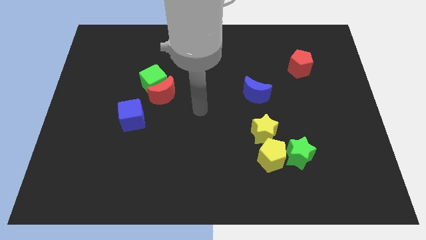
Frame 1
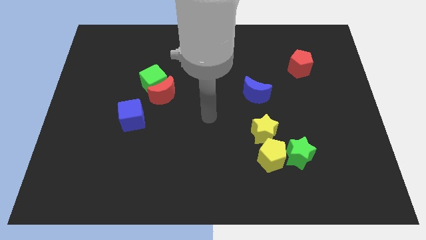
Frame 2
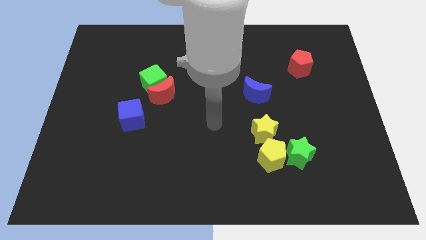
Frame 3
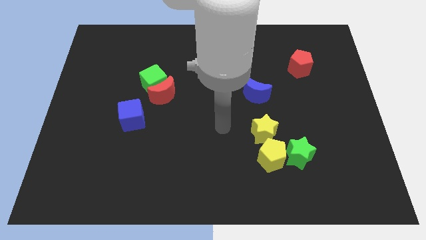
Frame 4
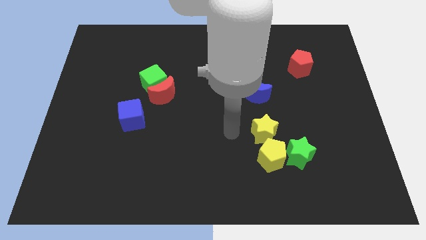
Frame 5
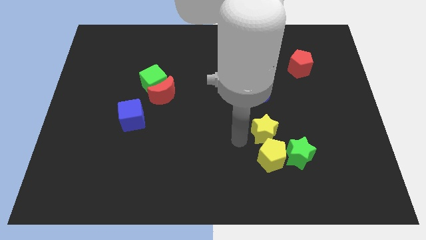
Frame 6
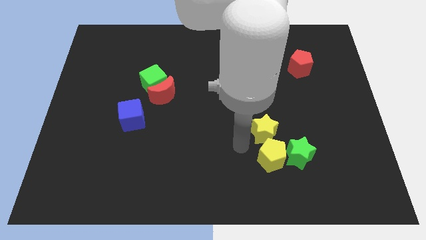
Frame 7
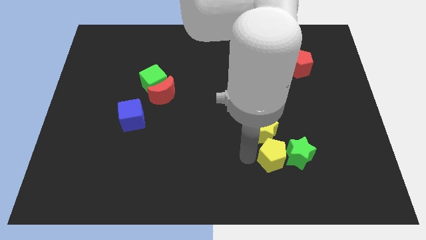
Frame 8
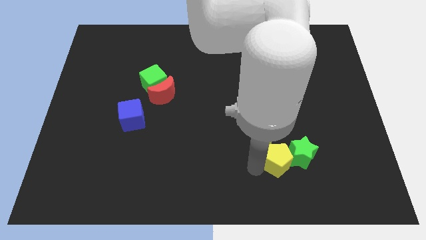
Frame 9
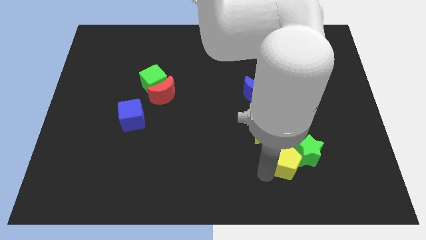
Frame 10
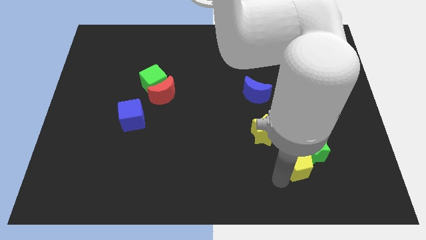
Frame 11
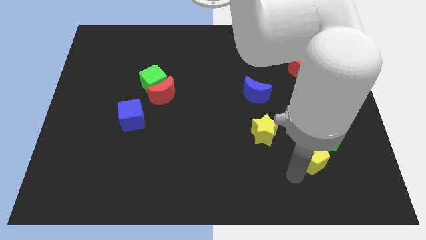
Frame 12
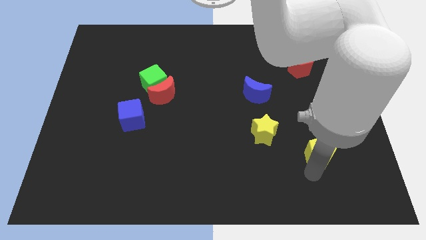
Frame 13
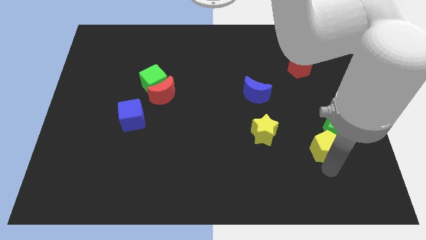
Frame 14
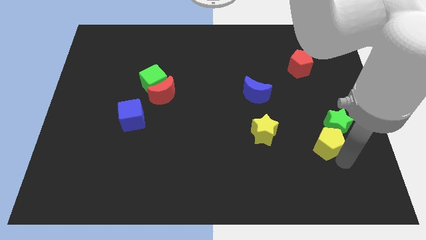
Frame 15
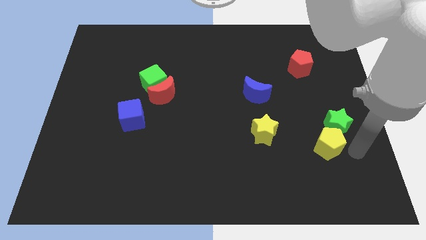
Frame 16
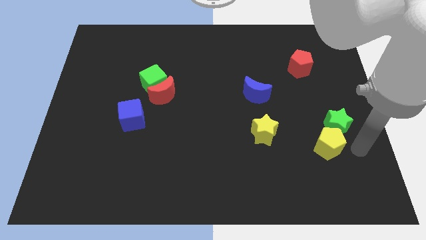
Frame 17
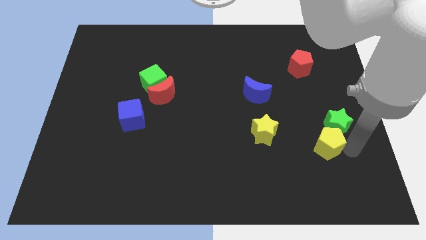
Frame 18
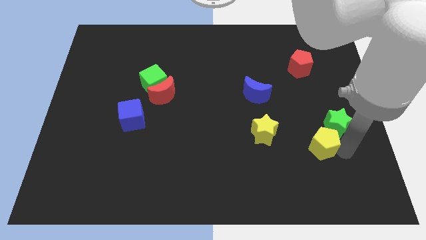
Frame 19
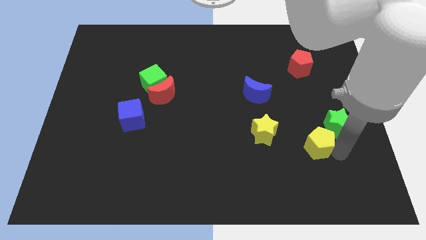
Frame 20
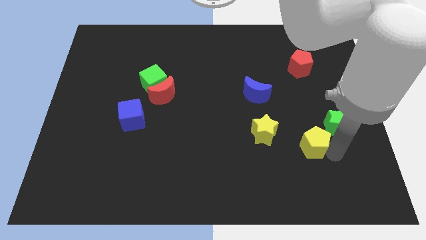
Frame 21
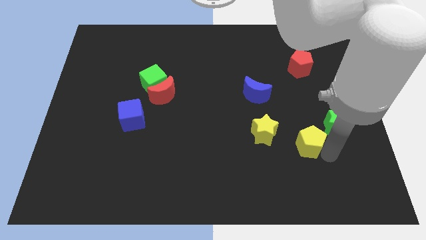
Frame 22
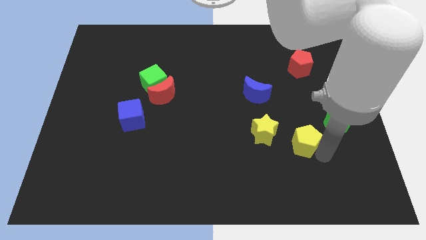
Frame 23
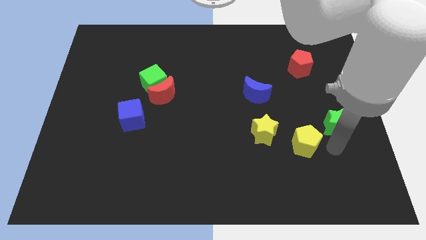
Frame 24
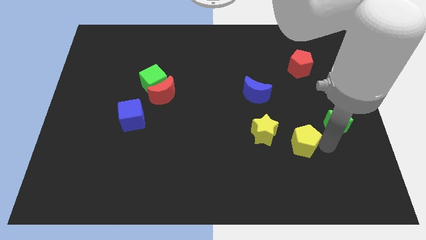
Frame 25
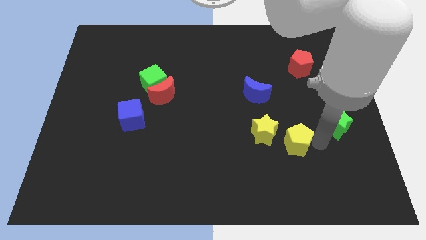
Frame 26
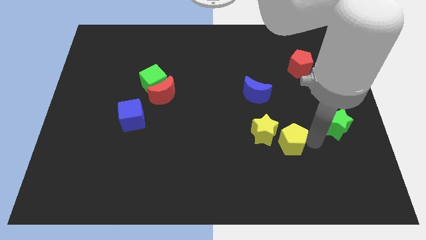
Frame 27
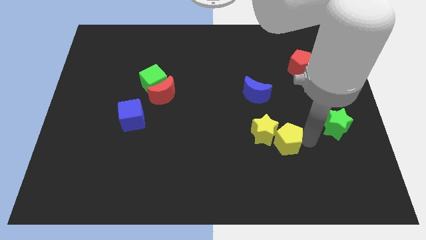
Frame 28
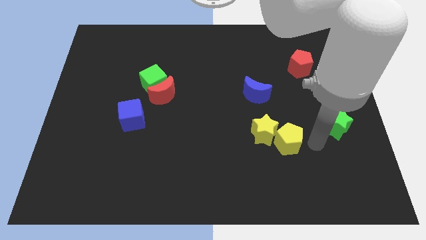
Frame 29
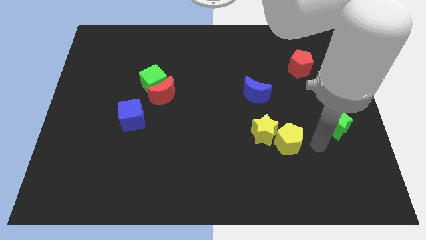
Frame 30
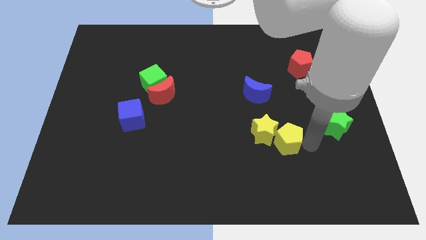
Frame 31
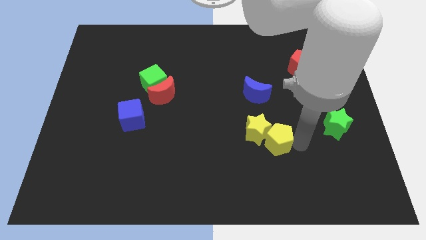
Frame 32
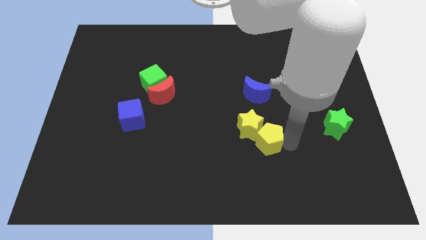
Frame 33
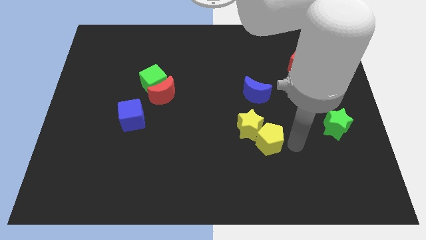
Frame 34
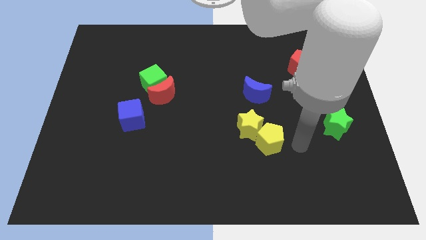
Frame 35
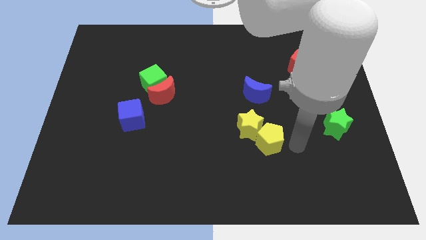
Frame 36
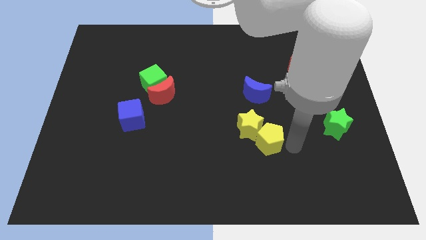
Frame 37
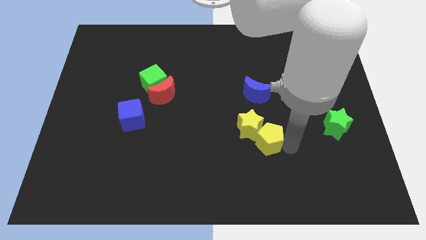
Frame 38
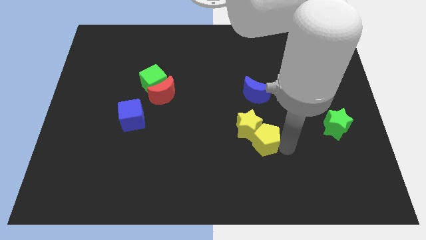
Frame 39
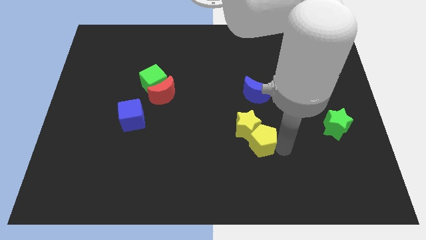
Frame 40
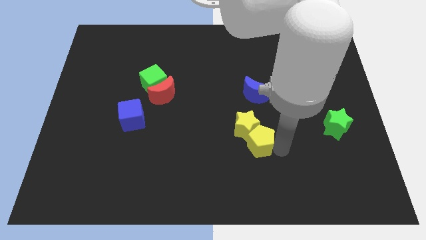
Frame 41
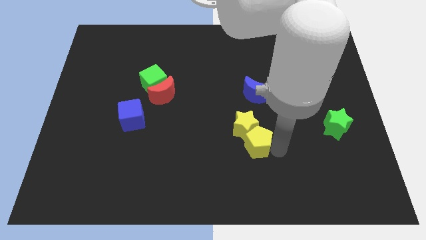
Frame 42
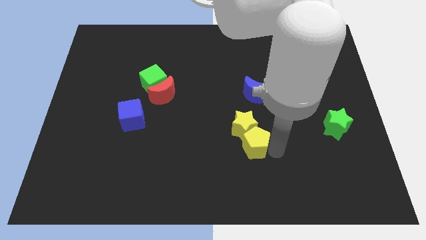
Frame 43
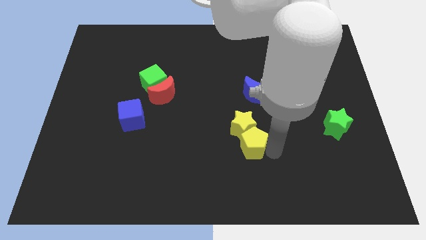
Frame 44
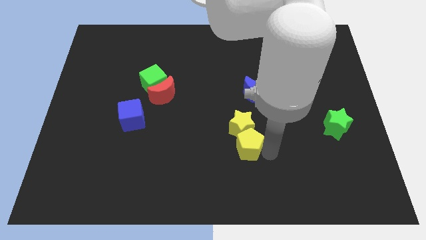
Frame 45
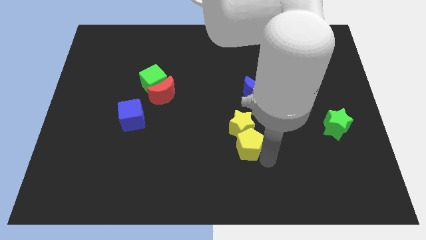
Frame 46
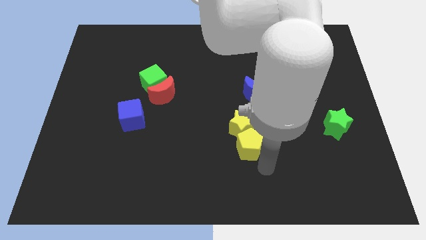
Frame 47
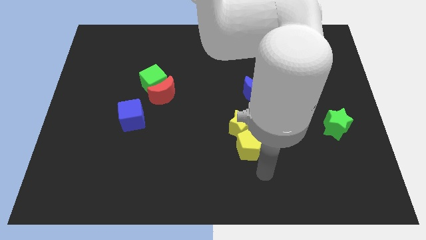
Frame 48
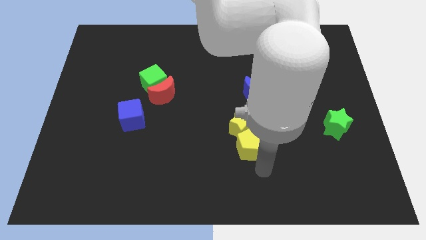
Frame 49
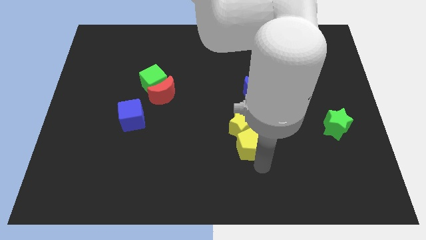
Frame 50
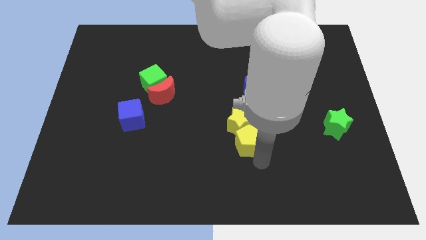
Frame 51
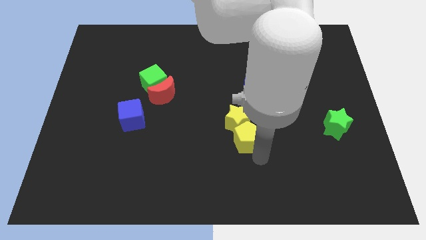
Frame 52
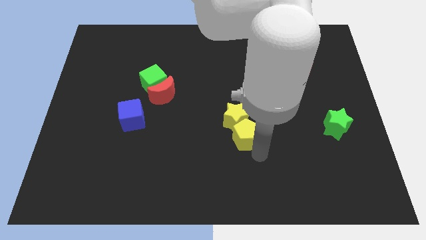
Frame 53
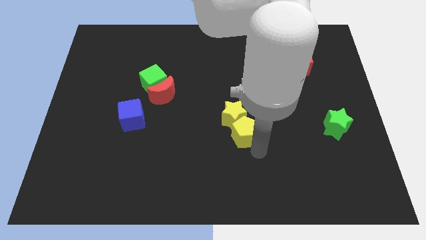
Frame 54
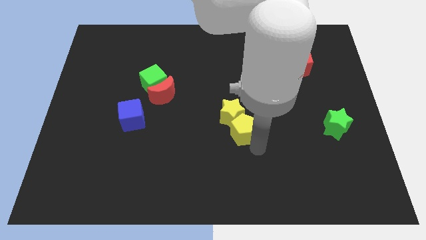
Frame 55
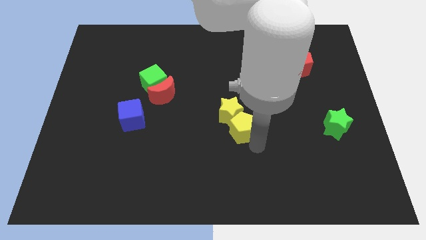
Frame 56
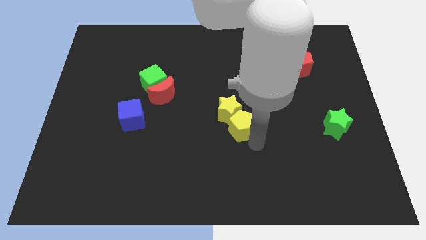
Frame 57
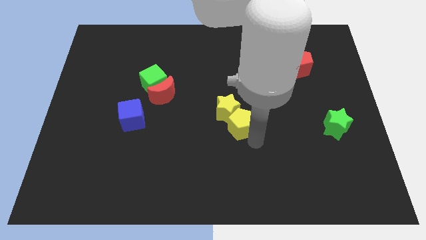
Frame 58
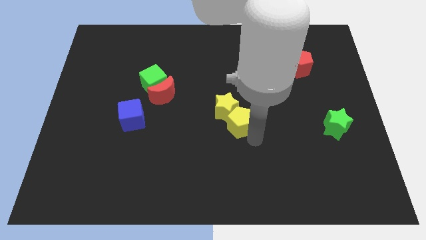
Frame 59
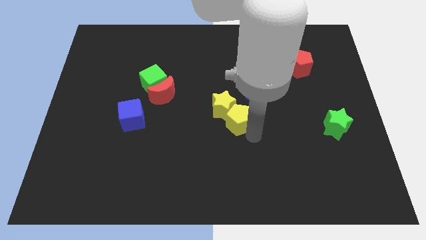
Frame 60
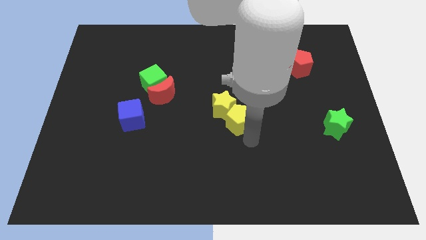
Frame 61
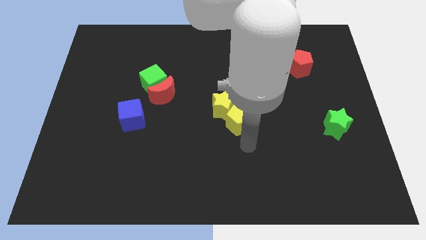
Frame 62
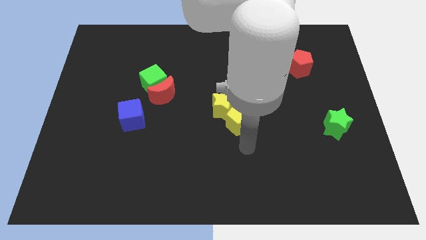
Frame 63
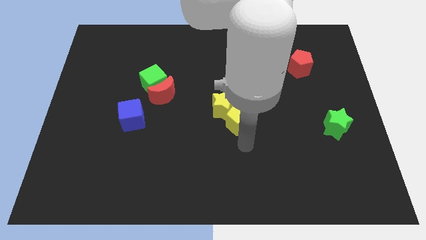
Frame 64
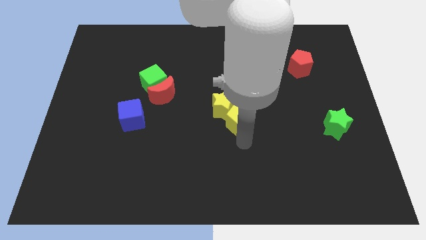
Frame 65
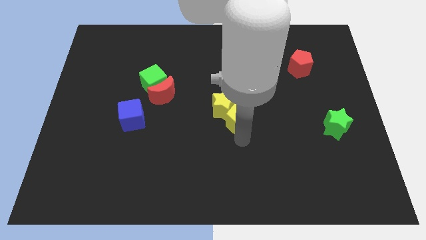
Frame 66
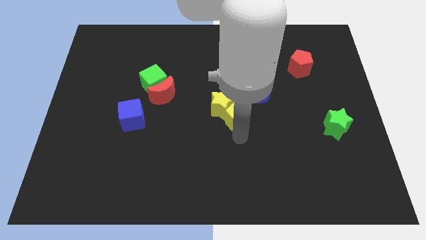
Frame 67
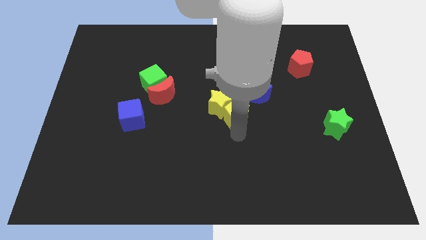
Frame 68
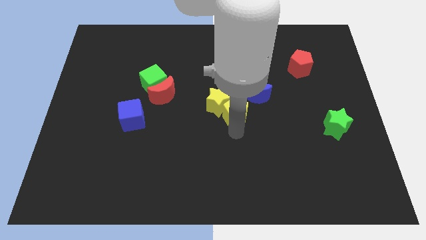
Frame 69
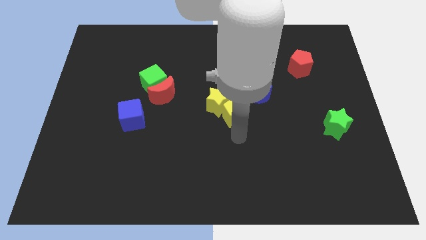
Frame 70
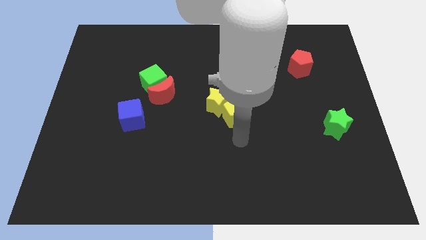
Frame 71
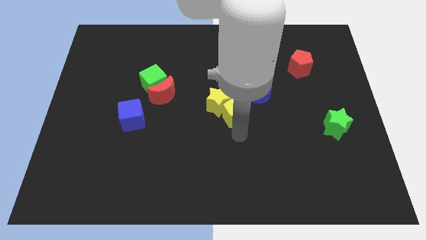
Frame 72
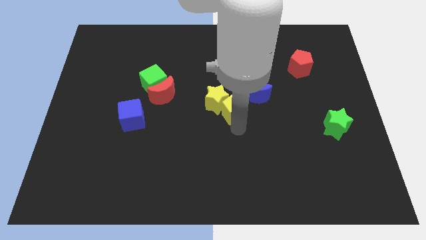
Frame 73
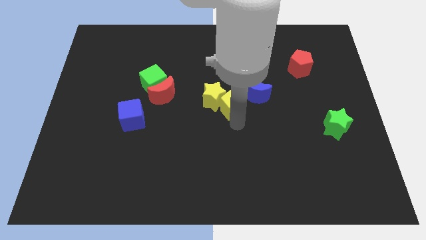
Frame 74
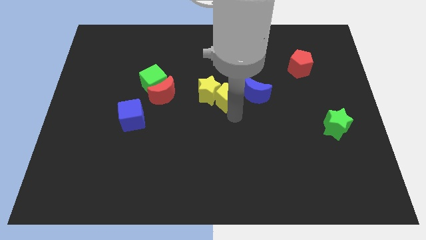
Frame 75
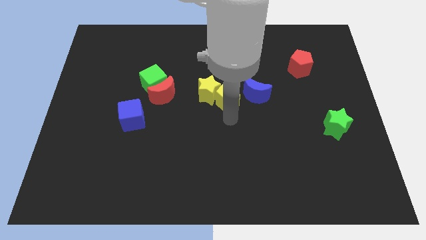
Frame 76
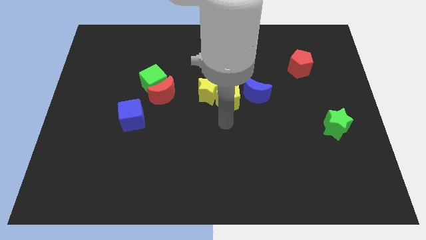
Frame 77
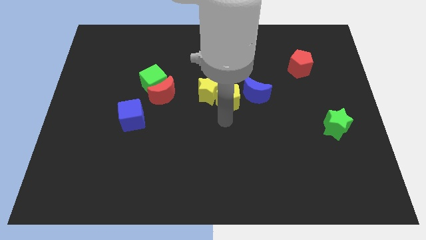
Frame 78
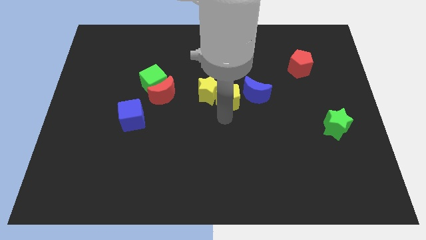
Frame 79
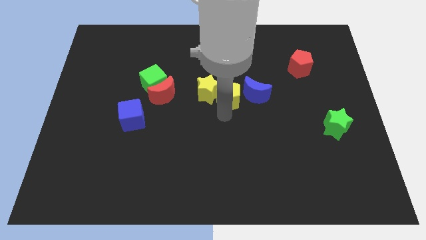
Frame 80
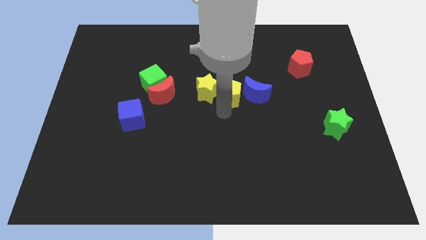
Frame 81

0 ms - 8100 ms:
put the yellow pentagon to the top left of the blue moon

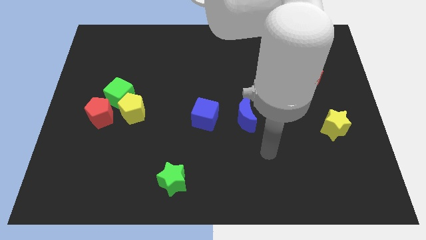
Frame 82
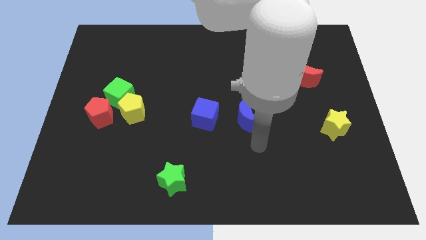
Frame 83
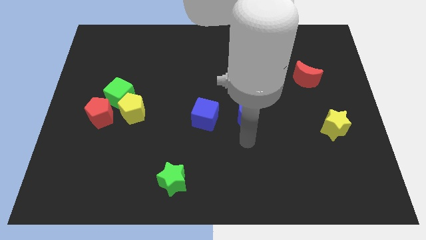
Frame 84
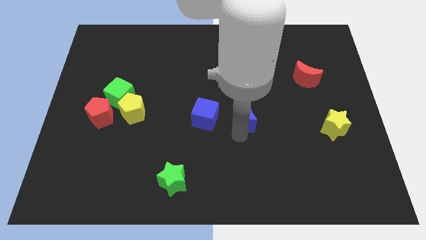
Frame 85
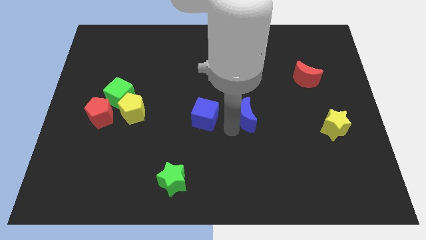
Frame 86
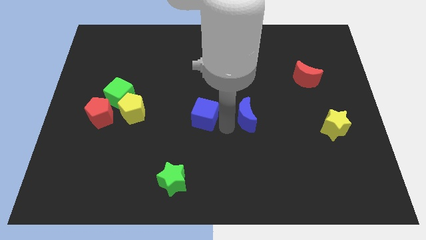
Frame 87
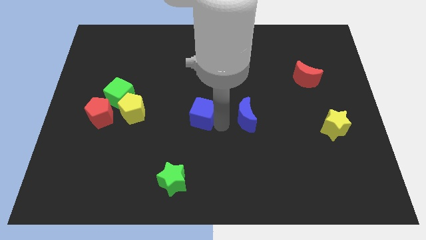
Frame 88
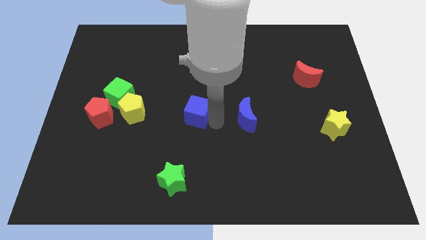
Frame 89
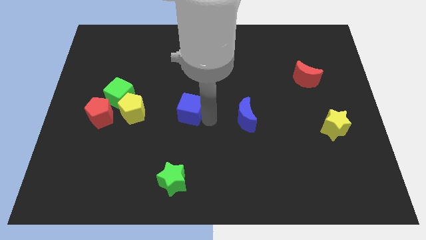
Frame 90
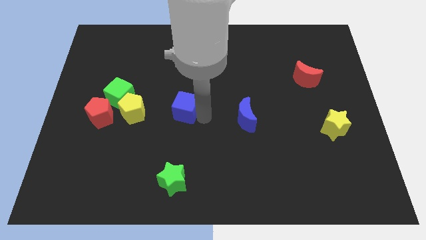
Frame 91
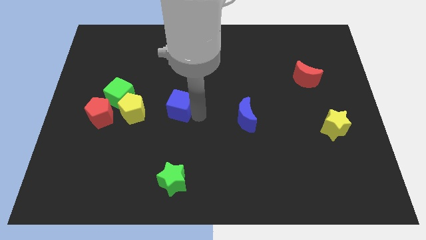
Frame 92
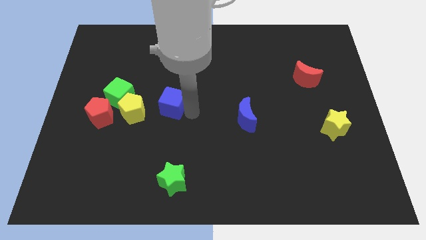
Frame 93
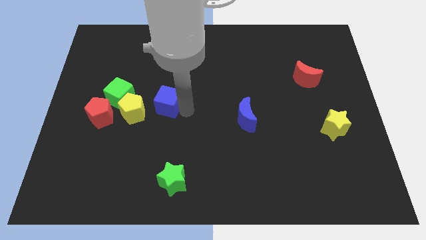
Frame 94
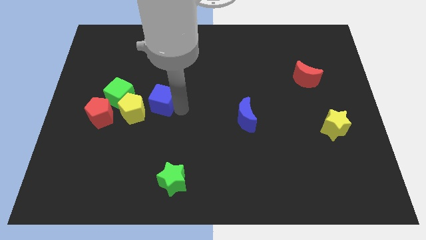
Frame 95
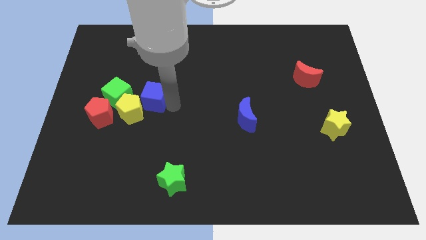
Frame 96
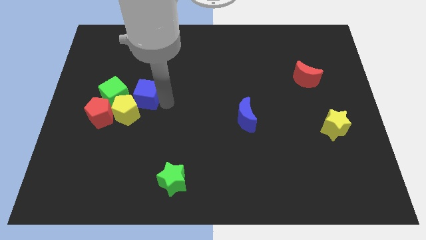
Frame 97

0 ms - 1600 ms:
push the blue cube to the top right of the red pentagon
